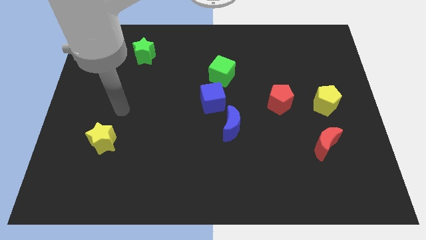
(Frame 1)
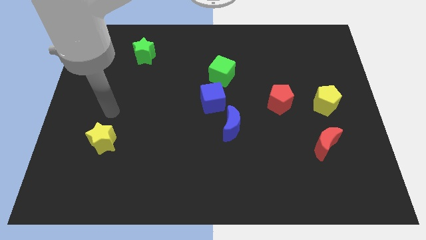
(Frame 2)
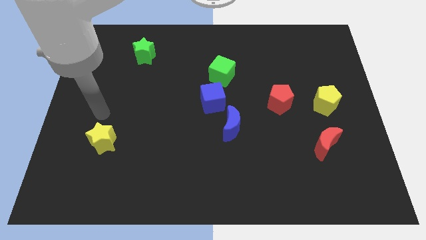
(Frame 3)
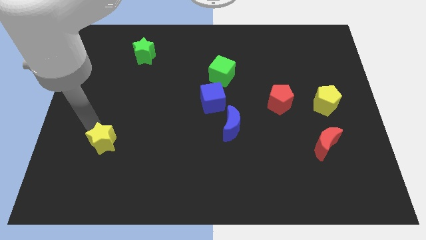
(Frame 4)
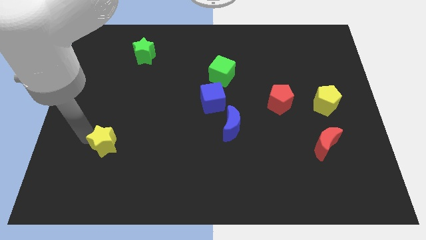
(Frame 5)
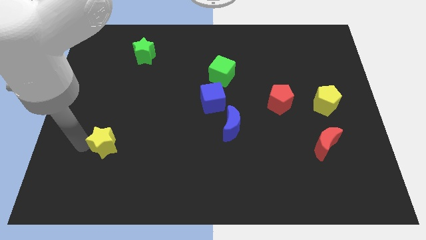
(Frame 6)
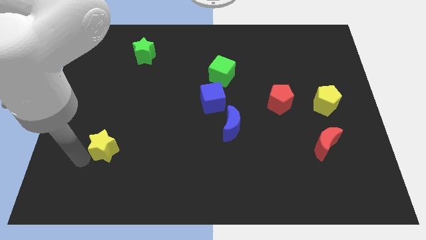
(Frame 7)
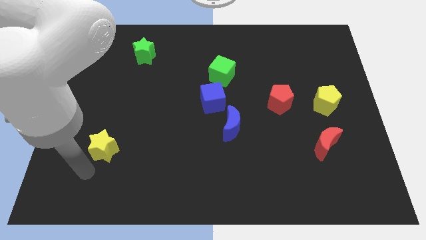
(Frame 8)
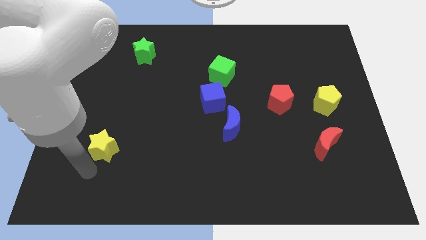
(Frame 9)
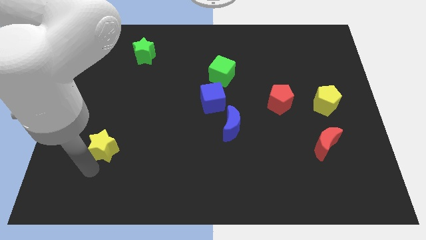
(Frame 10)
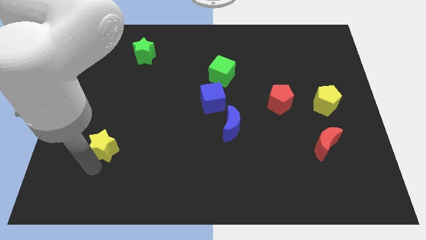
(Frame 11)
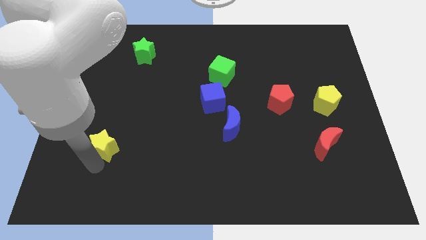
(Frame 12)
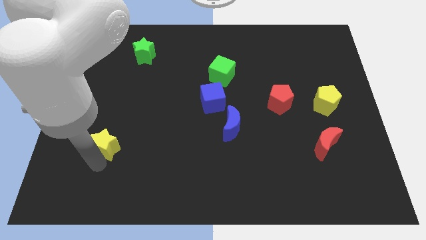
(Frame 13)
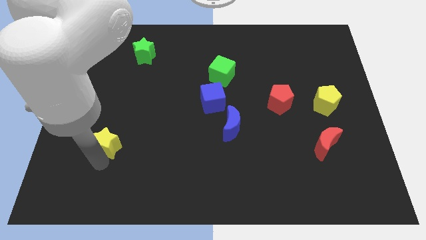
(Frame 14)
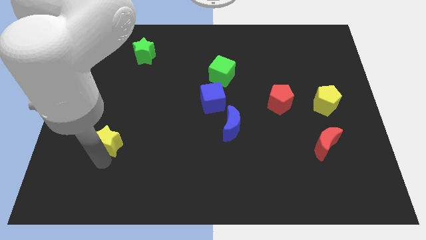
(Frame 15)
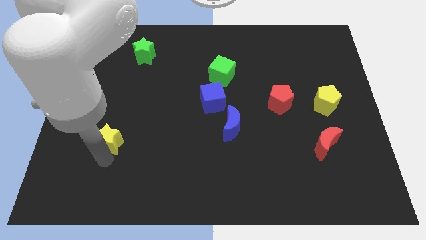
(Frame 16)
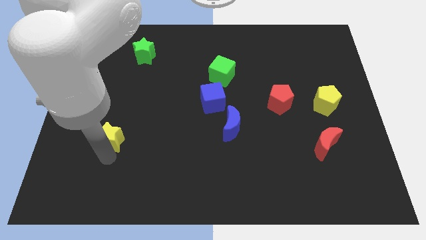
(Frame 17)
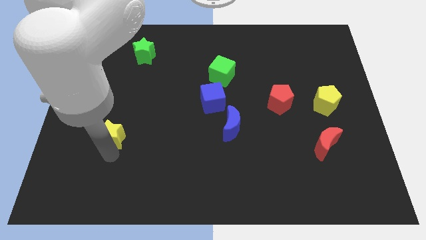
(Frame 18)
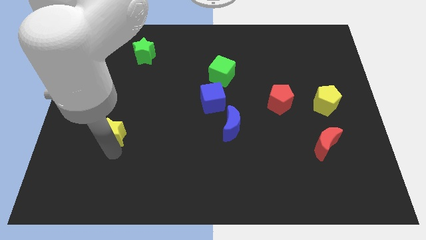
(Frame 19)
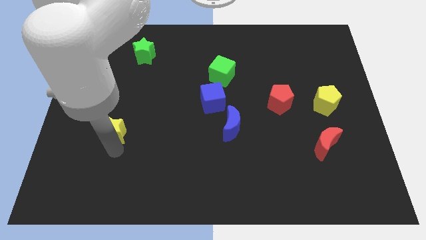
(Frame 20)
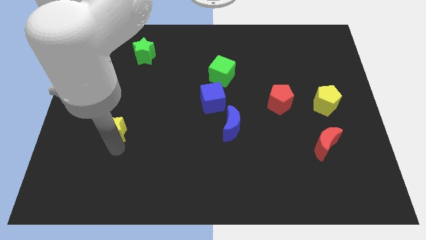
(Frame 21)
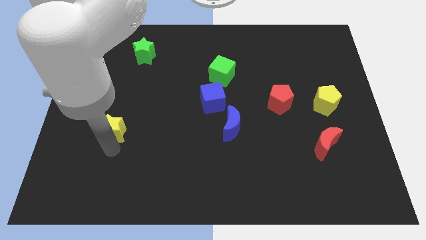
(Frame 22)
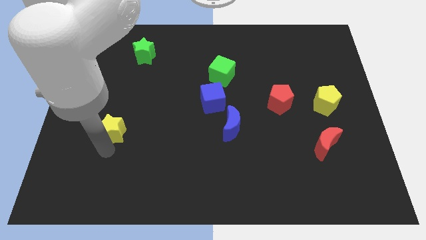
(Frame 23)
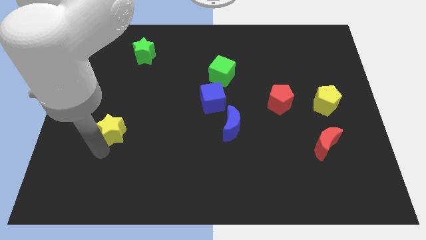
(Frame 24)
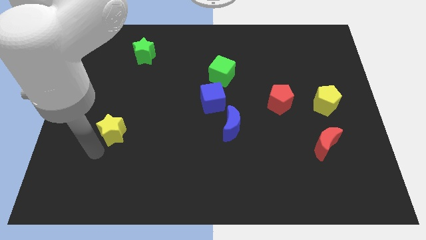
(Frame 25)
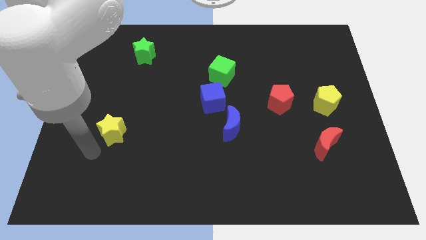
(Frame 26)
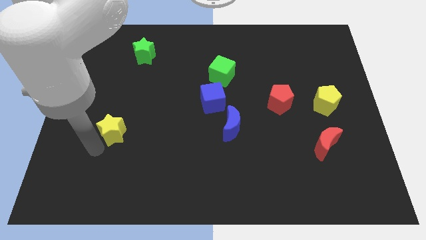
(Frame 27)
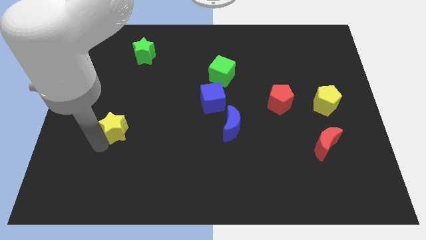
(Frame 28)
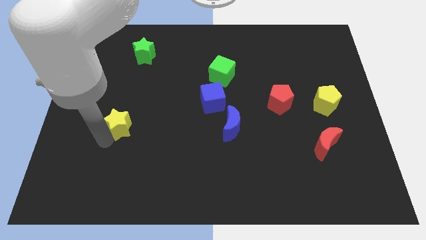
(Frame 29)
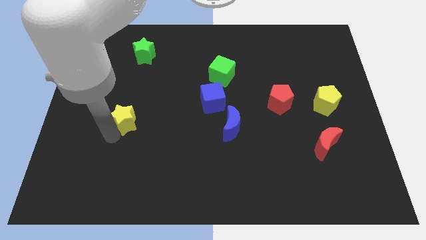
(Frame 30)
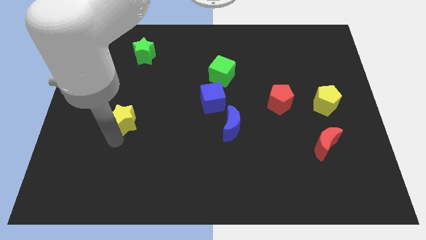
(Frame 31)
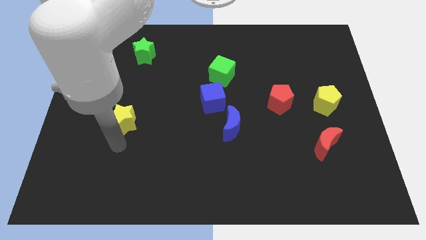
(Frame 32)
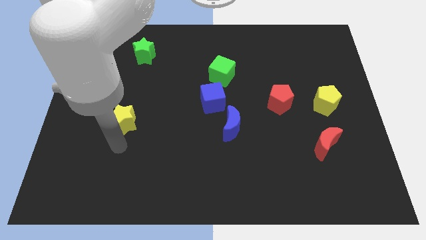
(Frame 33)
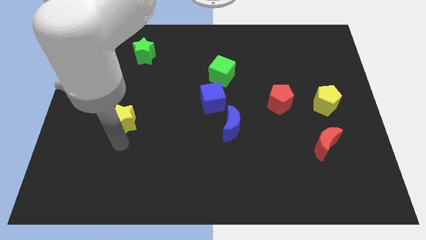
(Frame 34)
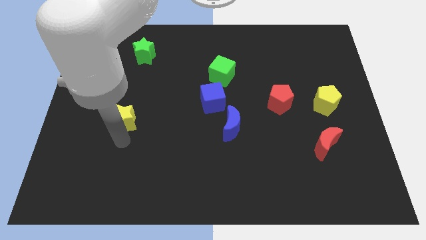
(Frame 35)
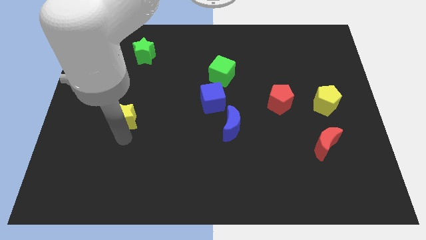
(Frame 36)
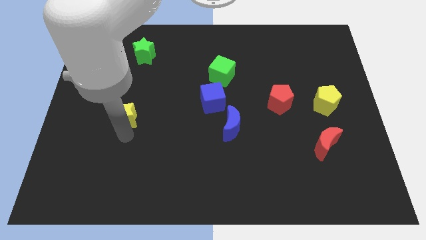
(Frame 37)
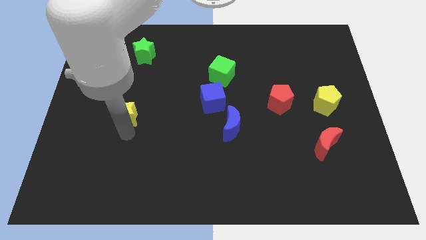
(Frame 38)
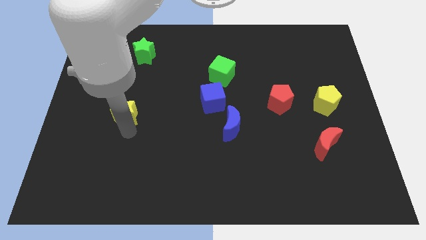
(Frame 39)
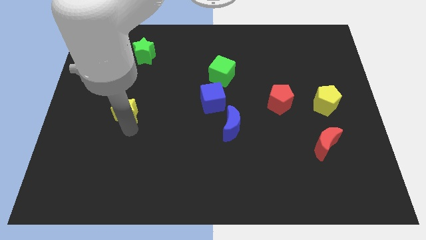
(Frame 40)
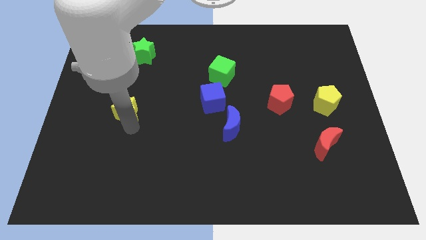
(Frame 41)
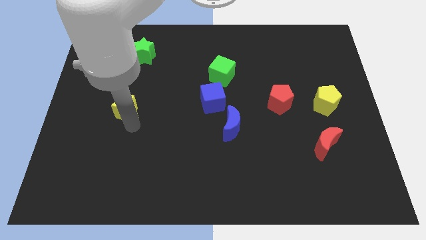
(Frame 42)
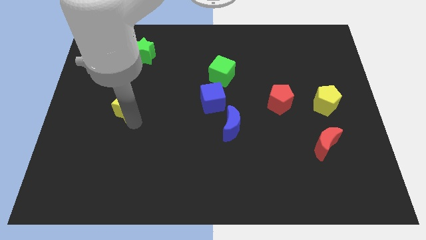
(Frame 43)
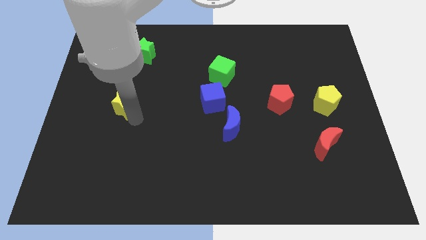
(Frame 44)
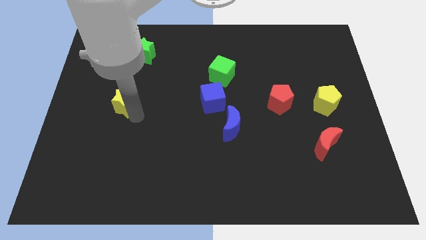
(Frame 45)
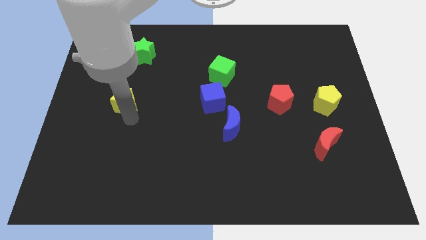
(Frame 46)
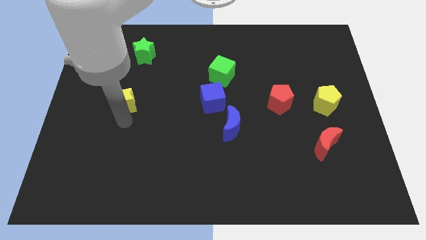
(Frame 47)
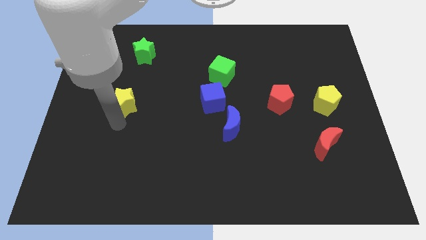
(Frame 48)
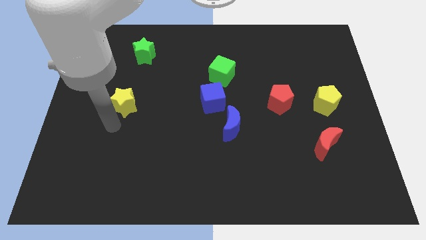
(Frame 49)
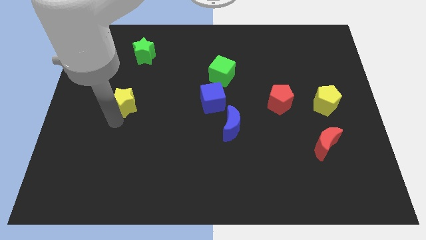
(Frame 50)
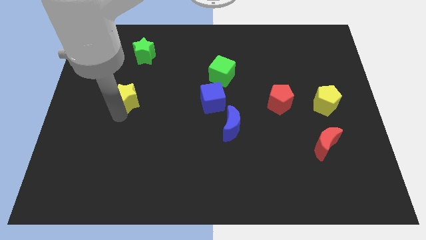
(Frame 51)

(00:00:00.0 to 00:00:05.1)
push the yellow star to the bottom of the green star

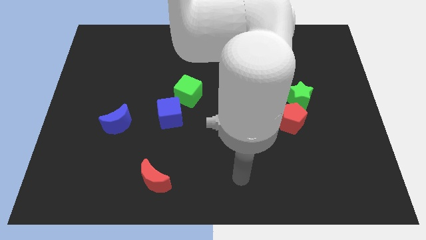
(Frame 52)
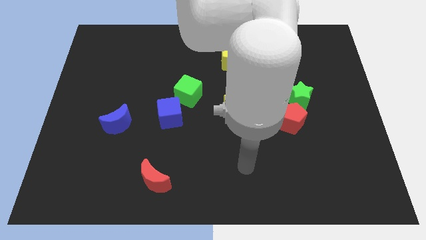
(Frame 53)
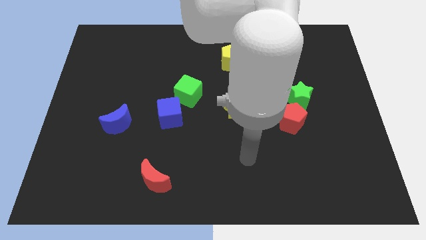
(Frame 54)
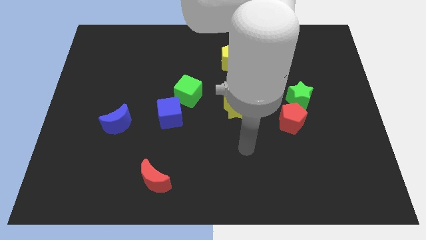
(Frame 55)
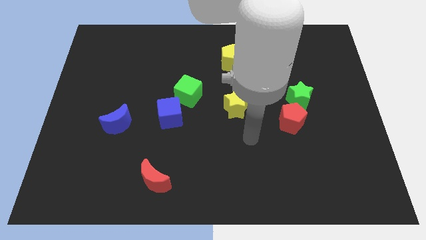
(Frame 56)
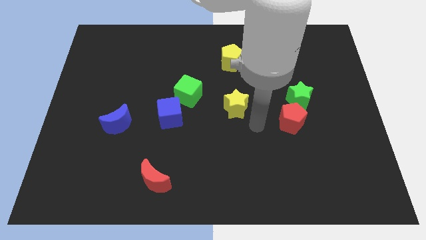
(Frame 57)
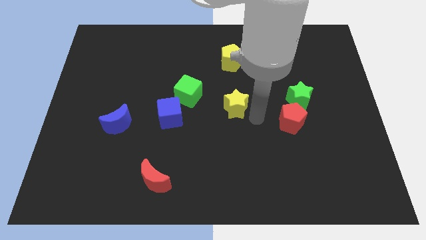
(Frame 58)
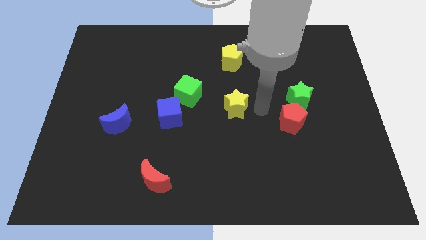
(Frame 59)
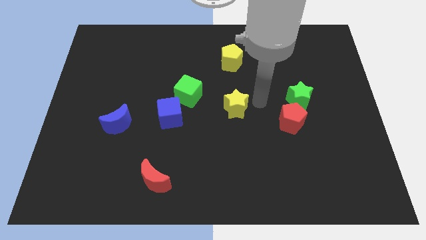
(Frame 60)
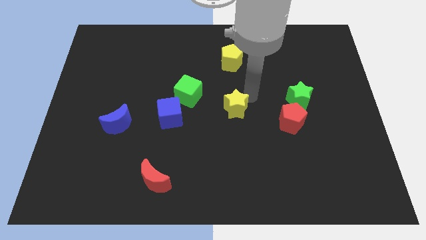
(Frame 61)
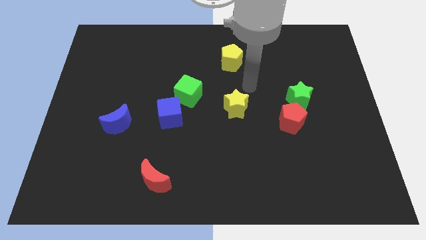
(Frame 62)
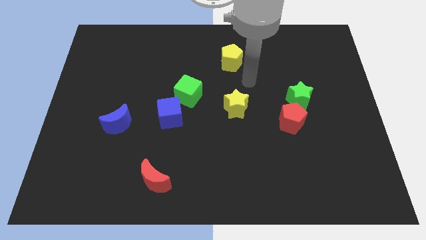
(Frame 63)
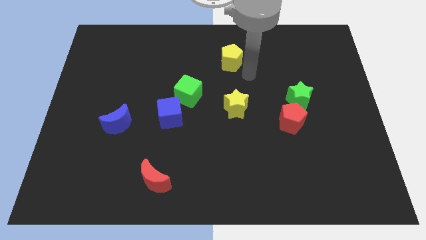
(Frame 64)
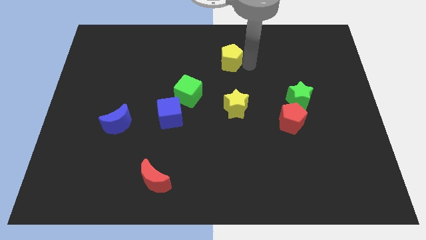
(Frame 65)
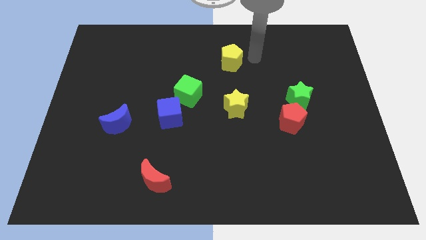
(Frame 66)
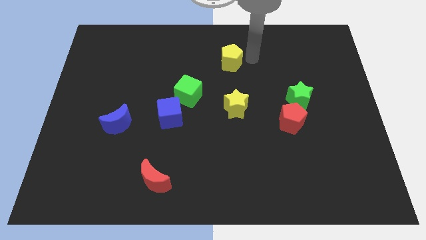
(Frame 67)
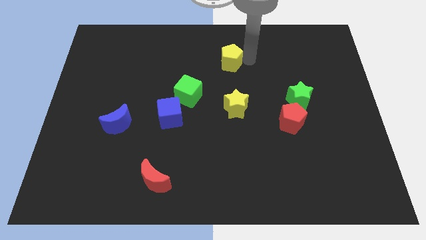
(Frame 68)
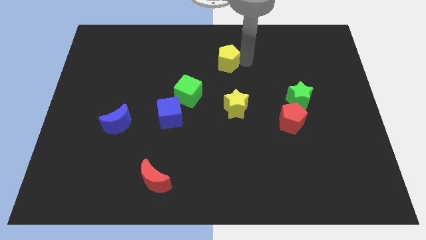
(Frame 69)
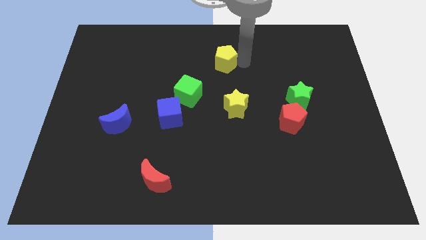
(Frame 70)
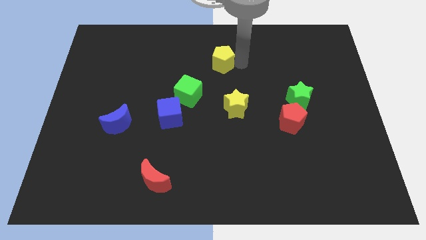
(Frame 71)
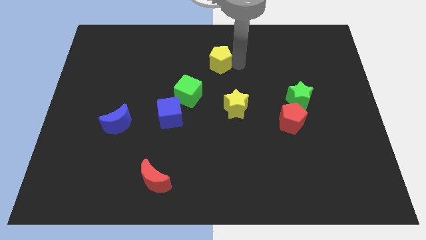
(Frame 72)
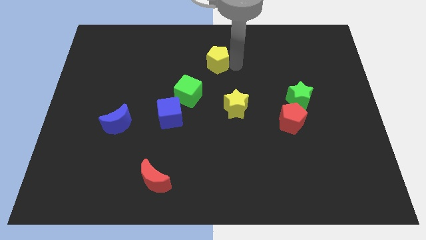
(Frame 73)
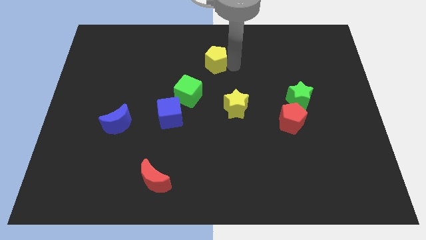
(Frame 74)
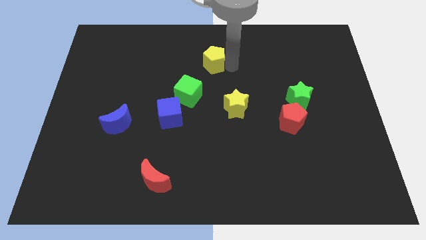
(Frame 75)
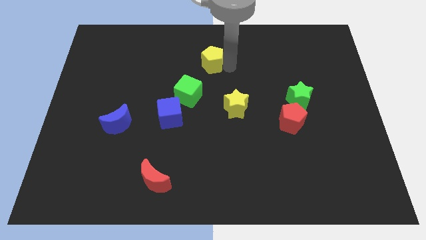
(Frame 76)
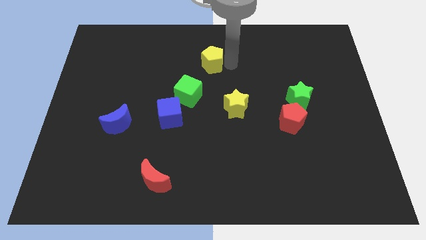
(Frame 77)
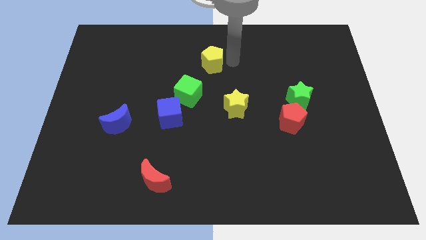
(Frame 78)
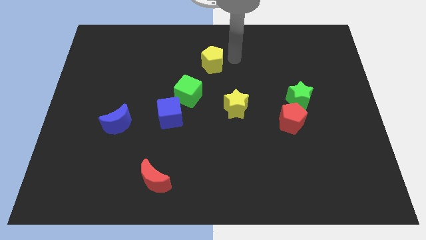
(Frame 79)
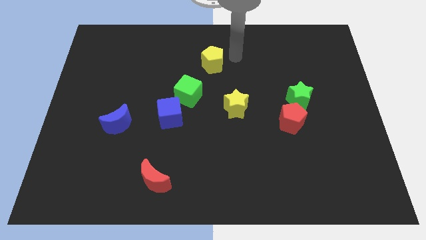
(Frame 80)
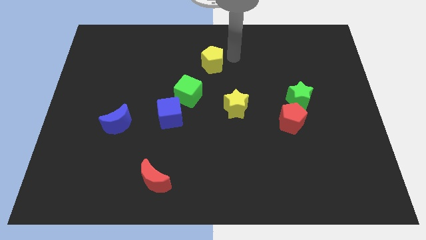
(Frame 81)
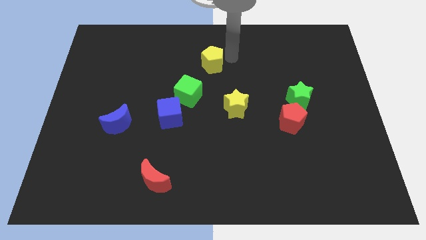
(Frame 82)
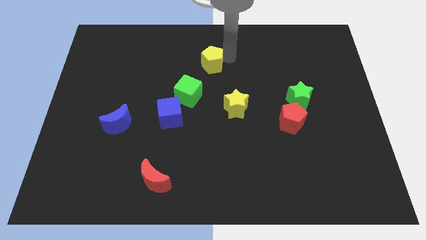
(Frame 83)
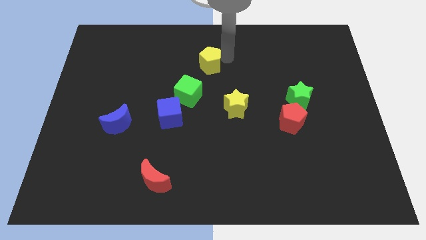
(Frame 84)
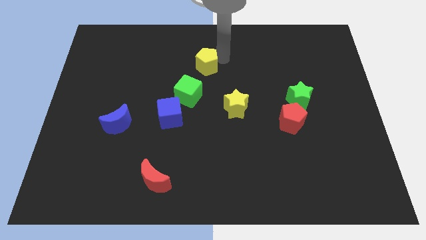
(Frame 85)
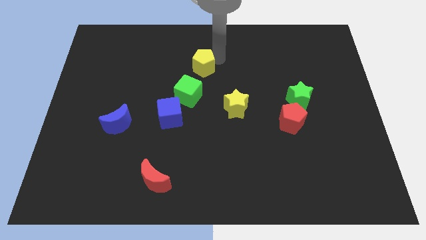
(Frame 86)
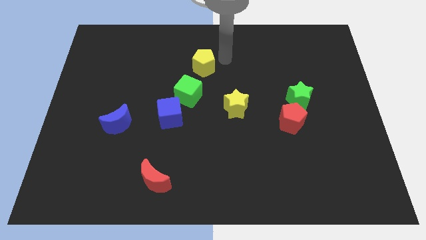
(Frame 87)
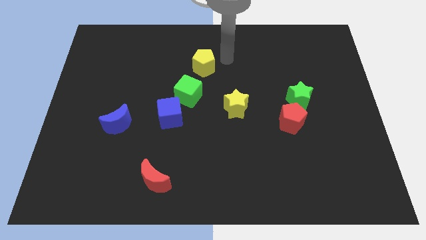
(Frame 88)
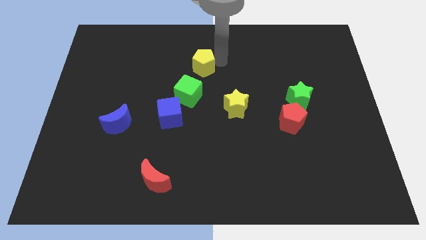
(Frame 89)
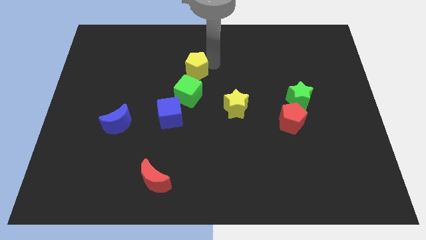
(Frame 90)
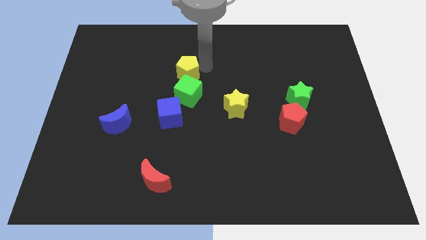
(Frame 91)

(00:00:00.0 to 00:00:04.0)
move the yellow pentagon to the top left of the green cube
